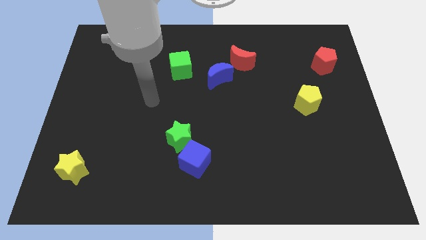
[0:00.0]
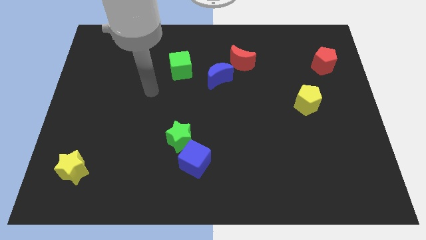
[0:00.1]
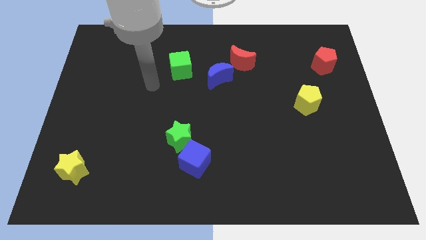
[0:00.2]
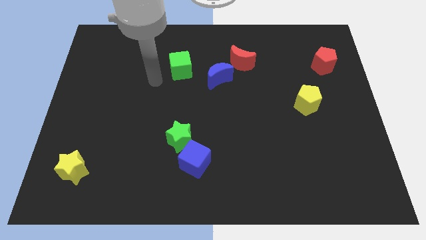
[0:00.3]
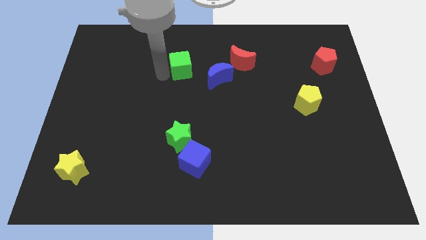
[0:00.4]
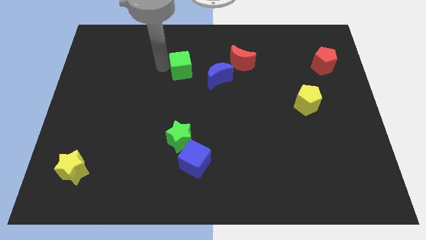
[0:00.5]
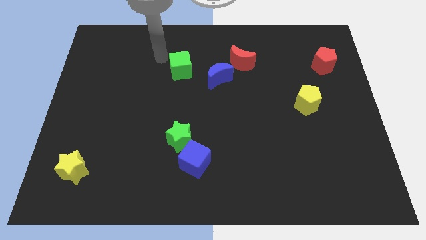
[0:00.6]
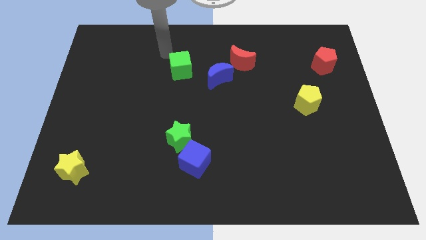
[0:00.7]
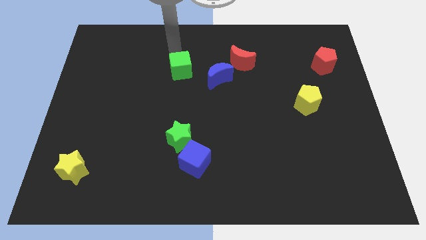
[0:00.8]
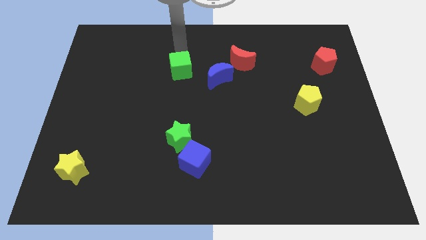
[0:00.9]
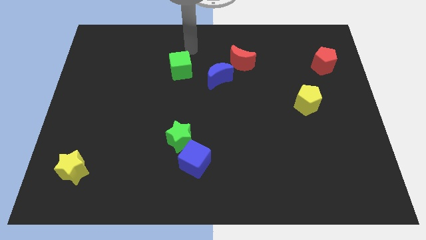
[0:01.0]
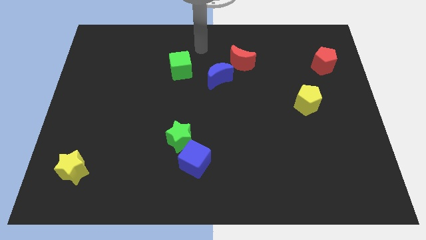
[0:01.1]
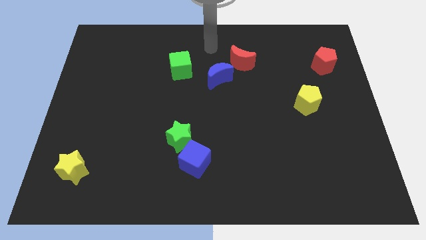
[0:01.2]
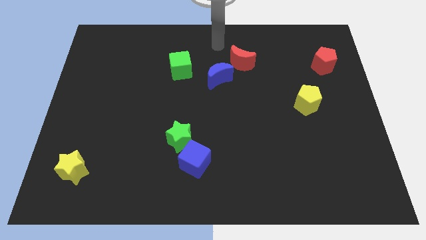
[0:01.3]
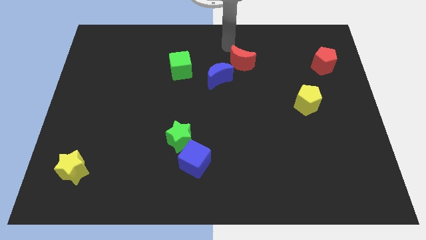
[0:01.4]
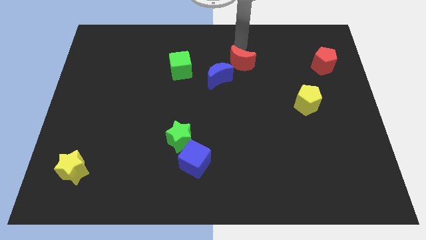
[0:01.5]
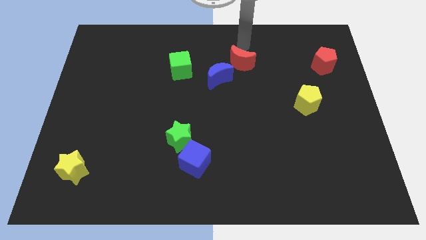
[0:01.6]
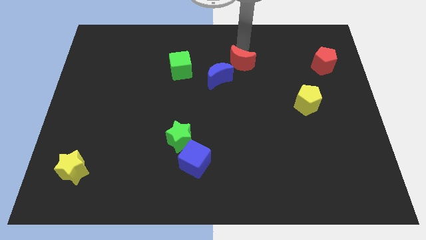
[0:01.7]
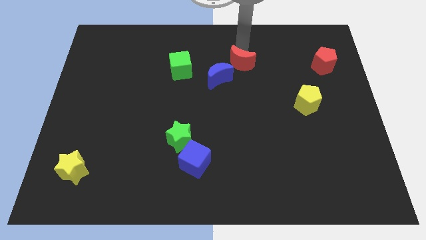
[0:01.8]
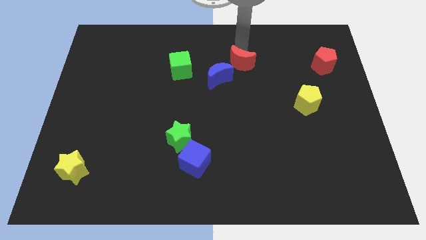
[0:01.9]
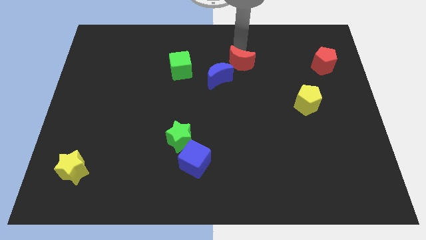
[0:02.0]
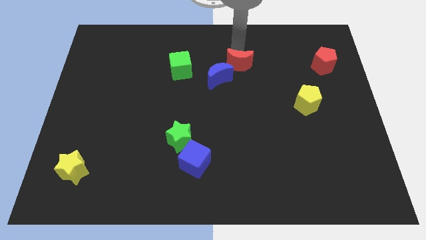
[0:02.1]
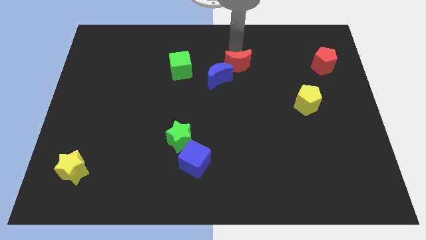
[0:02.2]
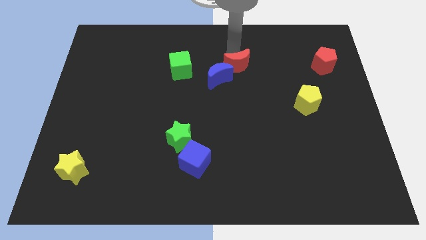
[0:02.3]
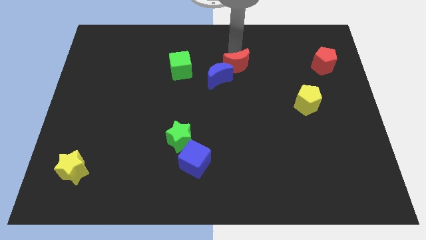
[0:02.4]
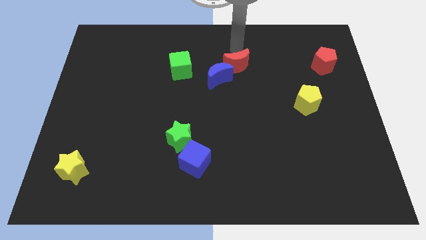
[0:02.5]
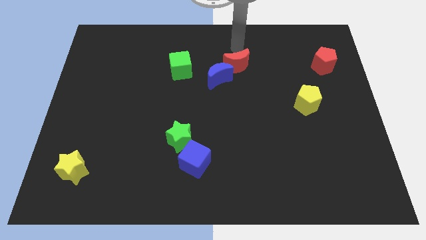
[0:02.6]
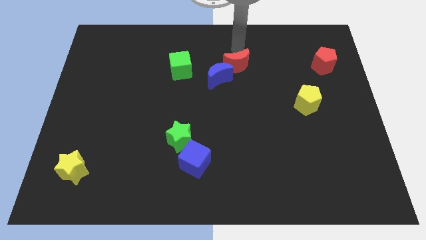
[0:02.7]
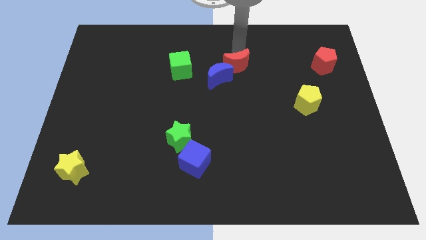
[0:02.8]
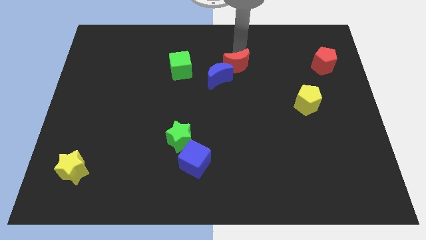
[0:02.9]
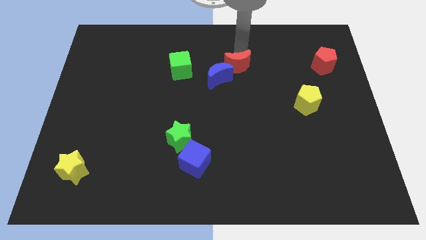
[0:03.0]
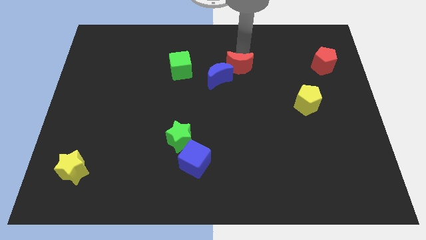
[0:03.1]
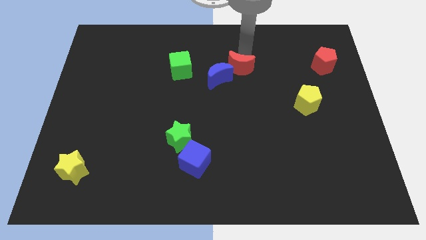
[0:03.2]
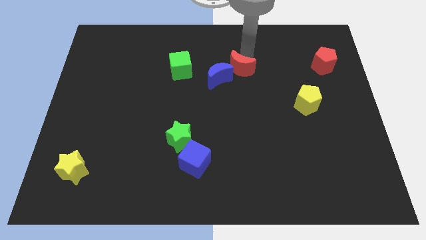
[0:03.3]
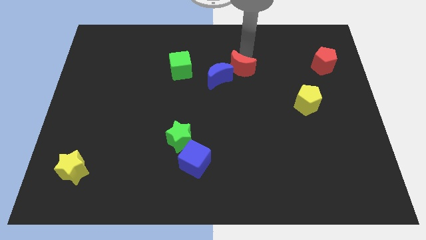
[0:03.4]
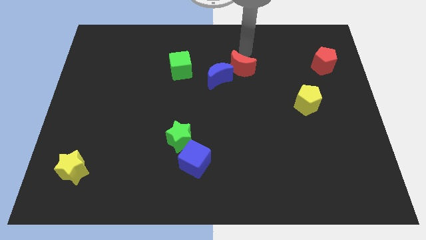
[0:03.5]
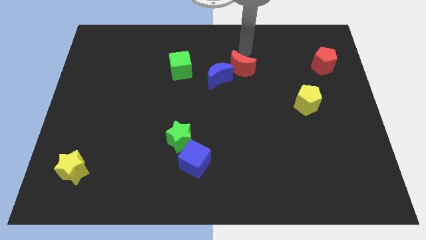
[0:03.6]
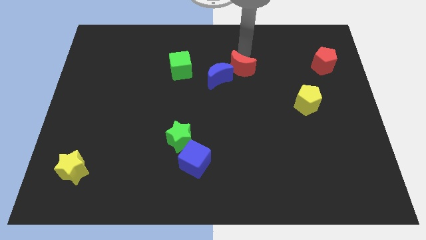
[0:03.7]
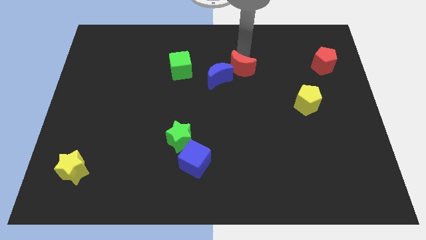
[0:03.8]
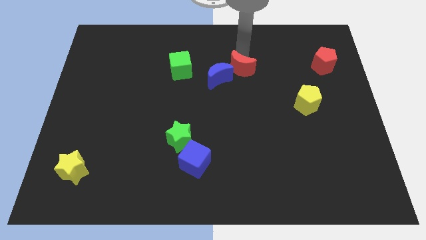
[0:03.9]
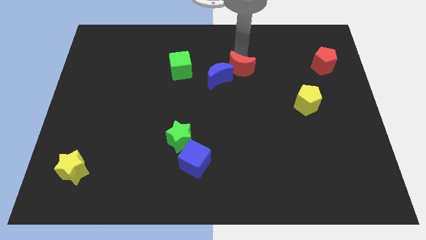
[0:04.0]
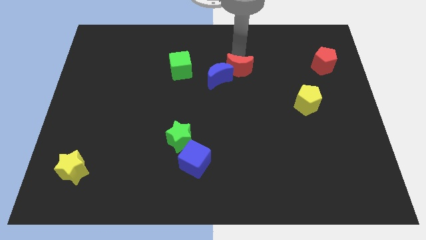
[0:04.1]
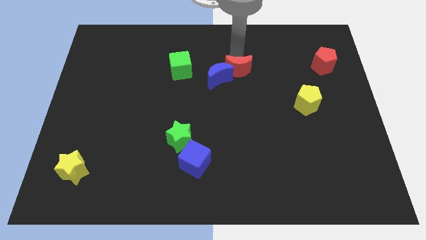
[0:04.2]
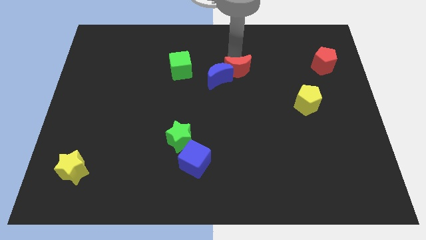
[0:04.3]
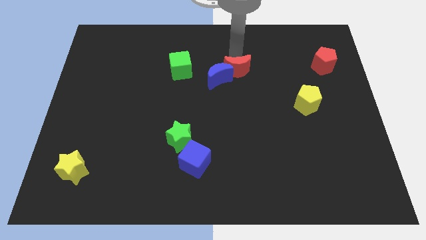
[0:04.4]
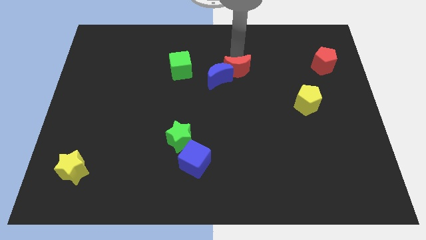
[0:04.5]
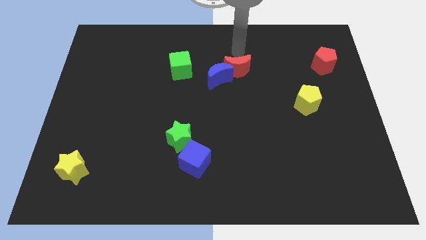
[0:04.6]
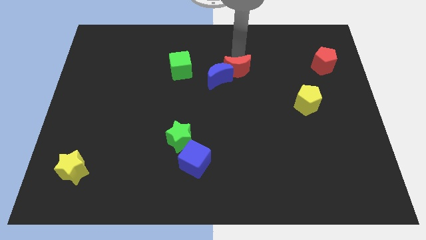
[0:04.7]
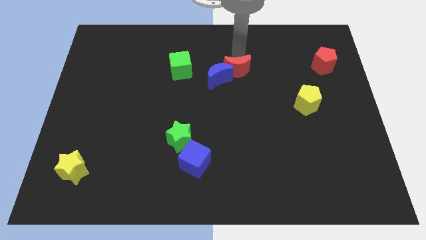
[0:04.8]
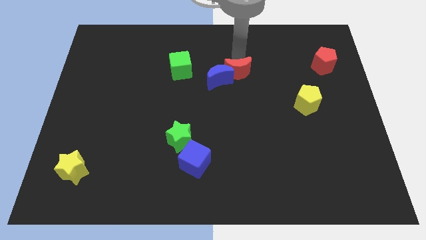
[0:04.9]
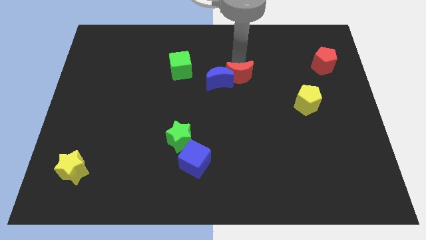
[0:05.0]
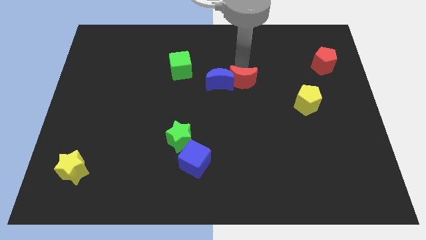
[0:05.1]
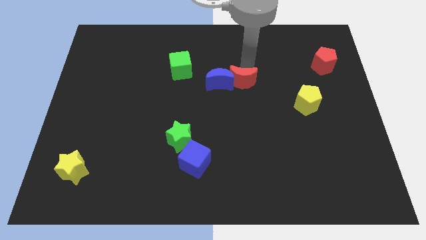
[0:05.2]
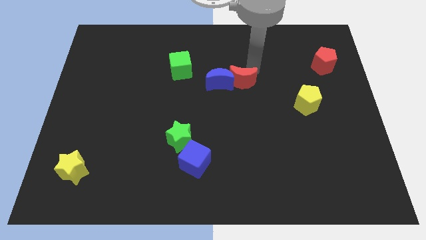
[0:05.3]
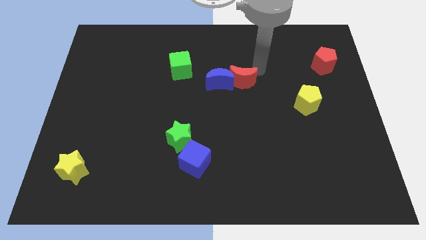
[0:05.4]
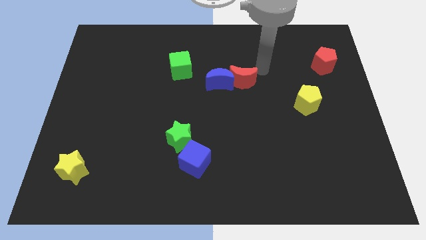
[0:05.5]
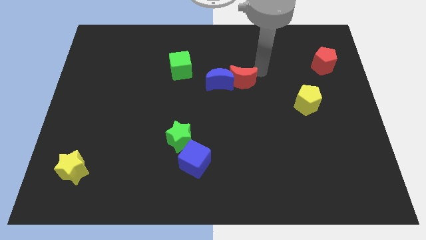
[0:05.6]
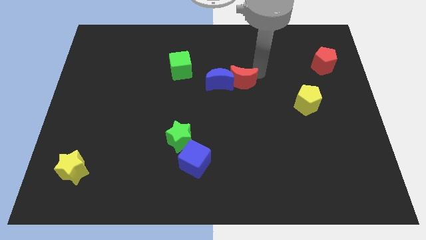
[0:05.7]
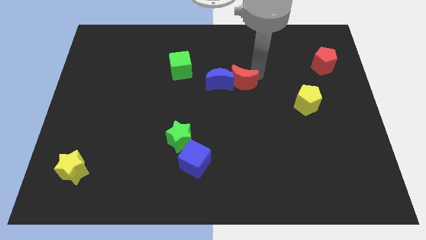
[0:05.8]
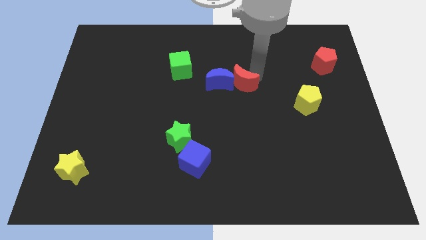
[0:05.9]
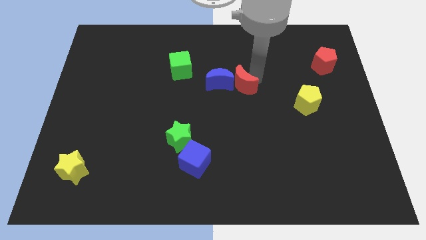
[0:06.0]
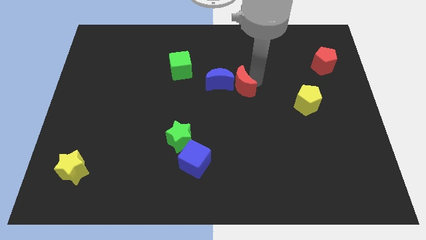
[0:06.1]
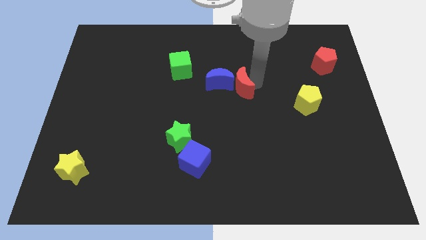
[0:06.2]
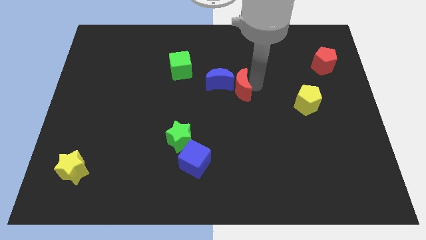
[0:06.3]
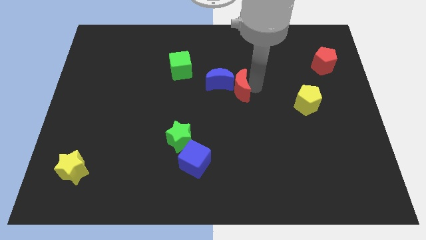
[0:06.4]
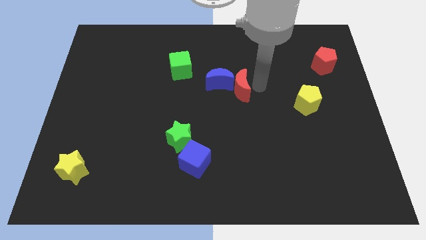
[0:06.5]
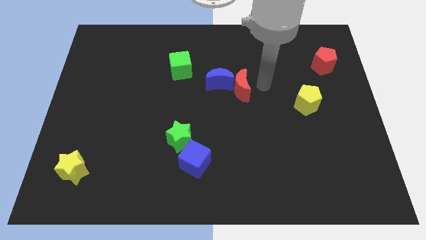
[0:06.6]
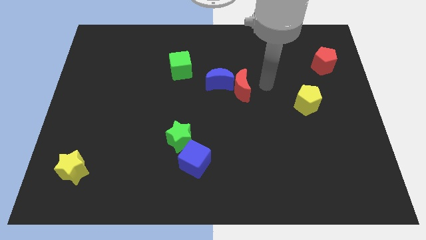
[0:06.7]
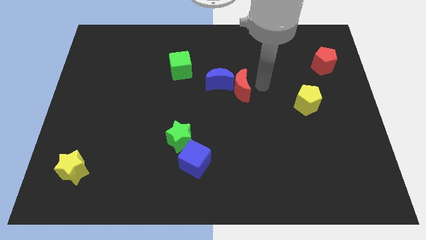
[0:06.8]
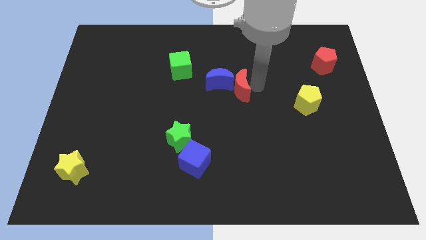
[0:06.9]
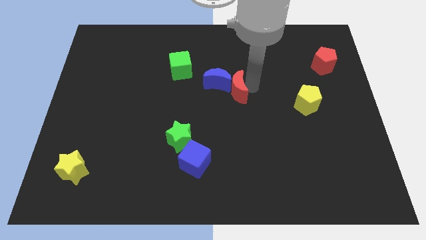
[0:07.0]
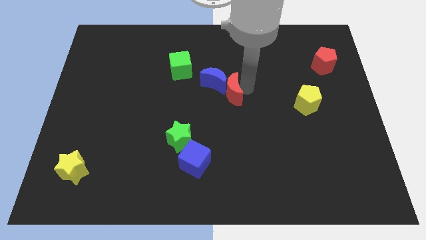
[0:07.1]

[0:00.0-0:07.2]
slide the red moon a bit down and then left

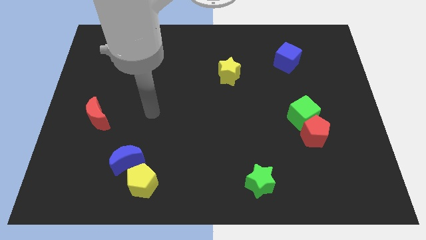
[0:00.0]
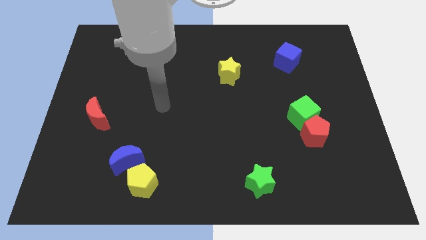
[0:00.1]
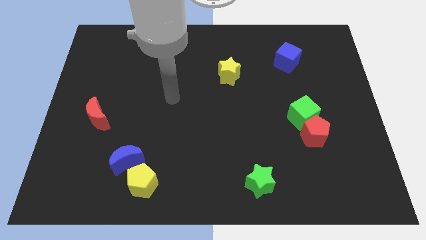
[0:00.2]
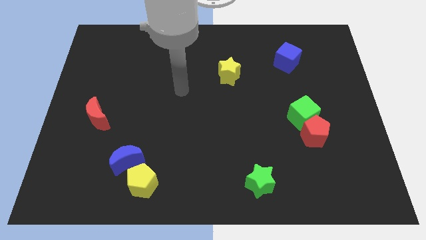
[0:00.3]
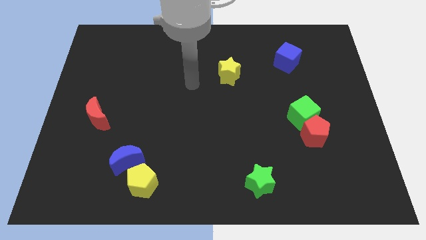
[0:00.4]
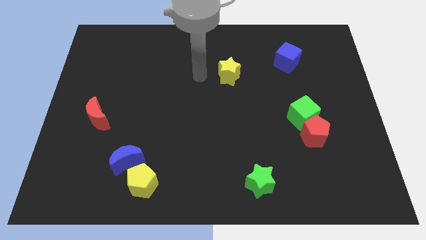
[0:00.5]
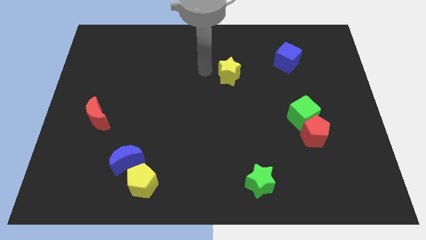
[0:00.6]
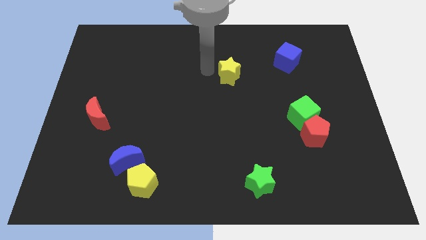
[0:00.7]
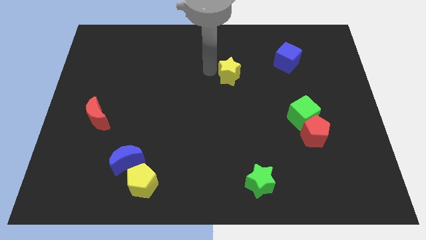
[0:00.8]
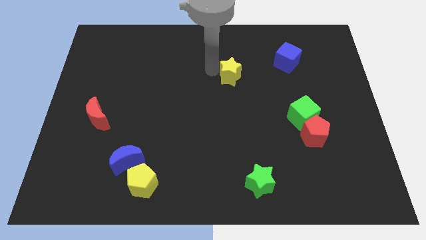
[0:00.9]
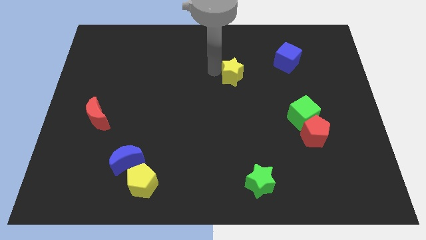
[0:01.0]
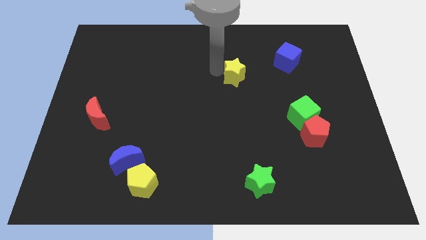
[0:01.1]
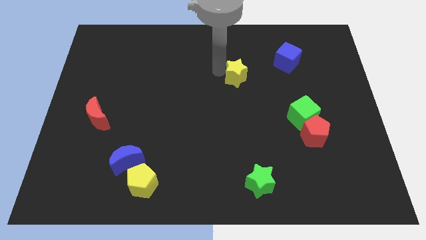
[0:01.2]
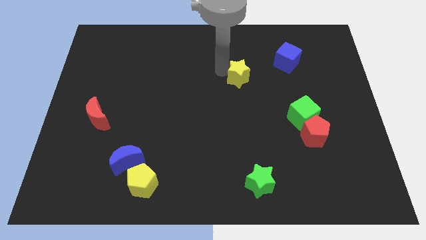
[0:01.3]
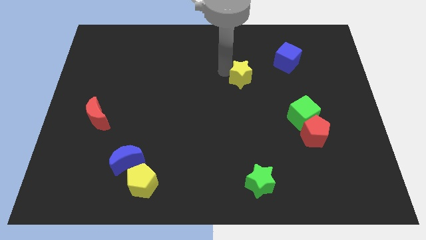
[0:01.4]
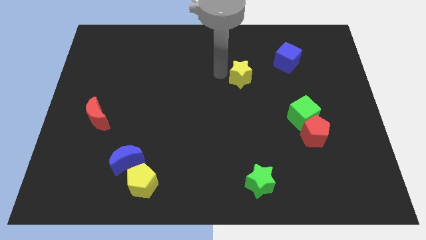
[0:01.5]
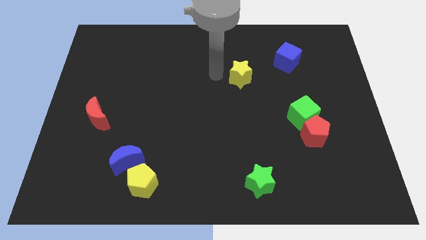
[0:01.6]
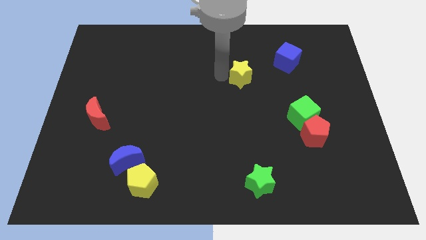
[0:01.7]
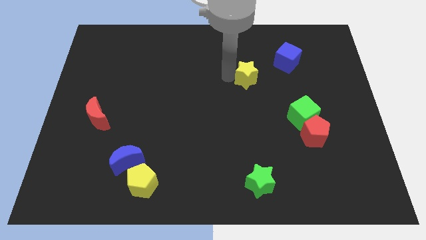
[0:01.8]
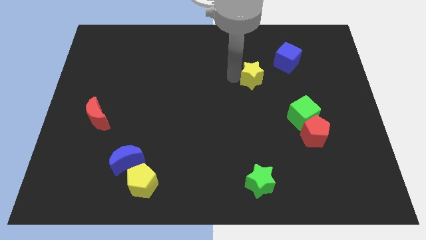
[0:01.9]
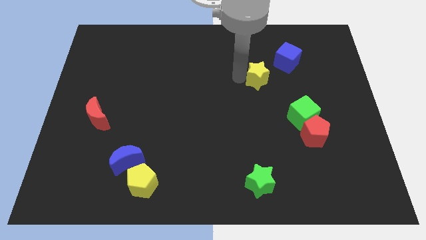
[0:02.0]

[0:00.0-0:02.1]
slightly slide the yellow star right
